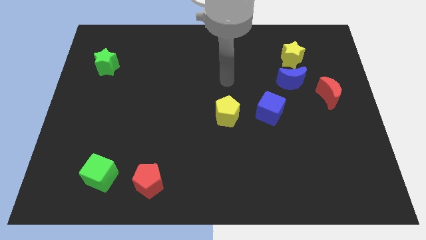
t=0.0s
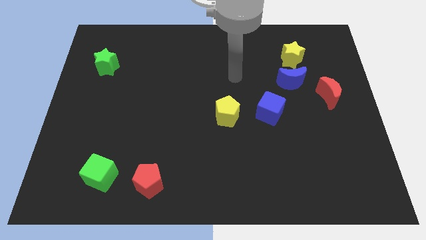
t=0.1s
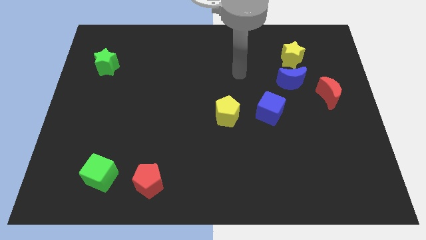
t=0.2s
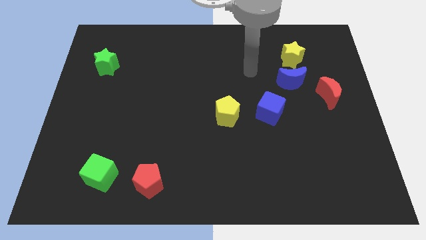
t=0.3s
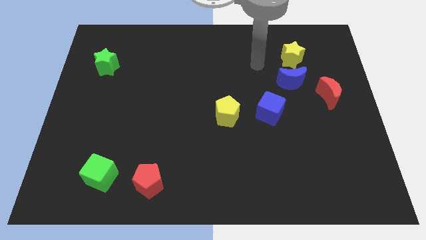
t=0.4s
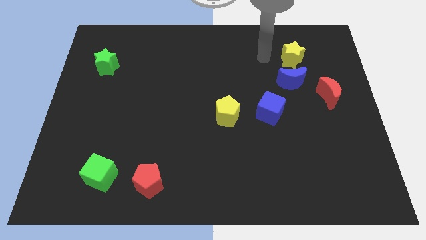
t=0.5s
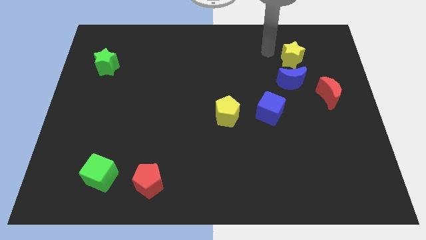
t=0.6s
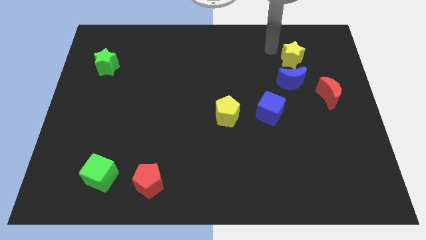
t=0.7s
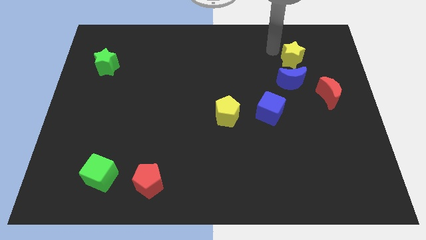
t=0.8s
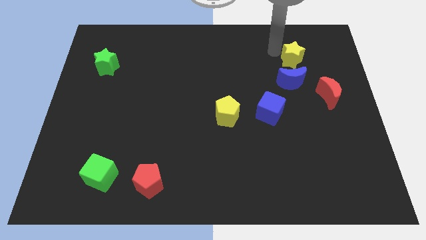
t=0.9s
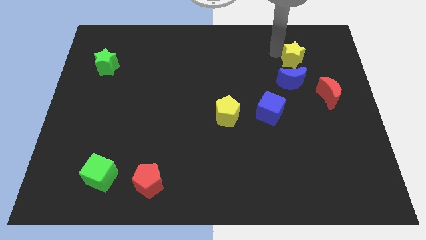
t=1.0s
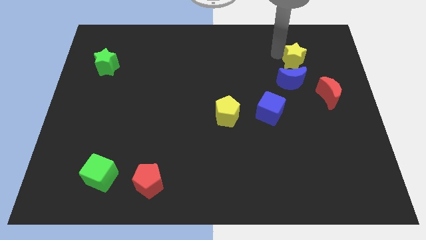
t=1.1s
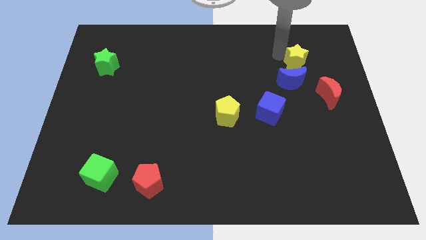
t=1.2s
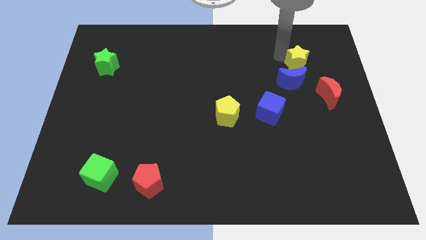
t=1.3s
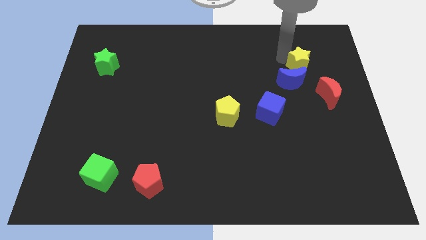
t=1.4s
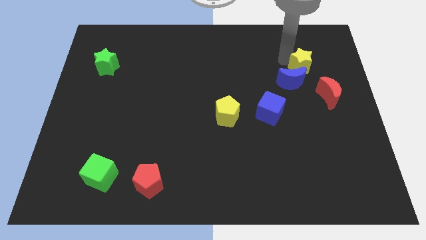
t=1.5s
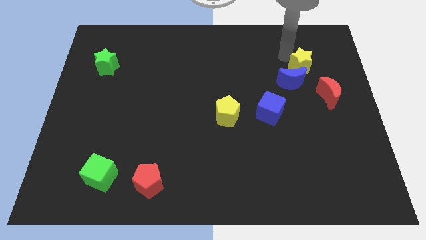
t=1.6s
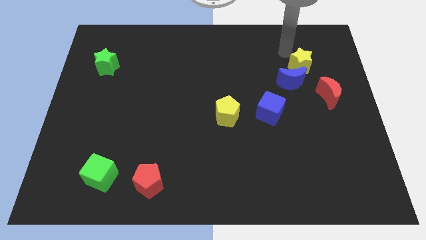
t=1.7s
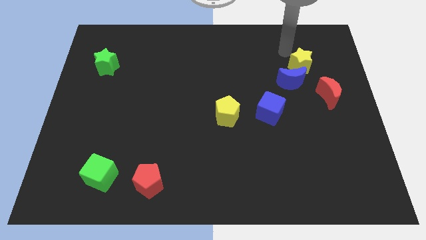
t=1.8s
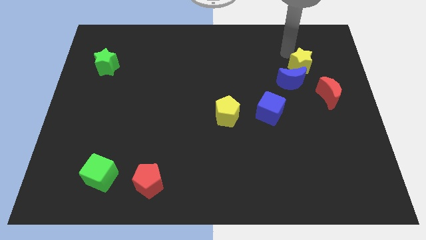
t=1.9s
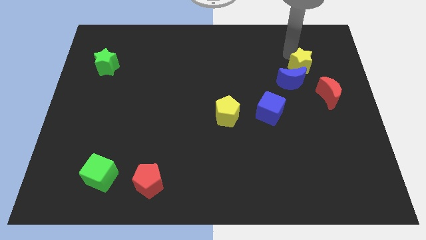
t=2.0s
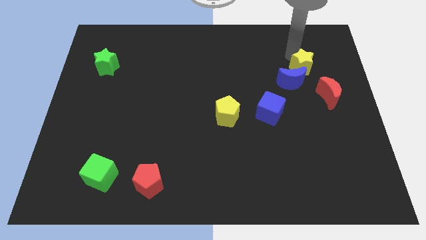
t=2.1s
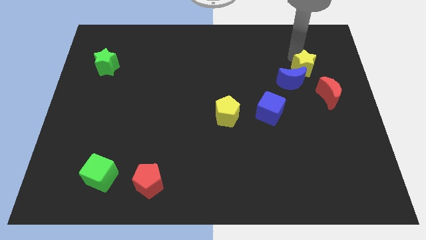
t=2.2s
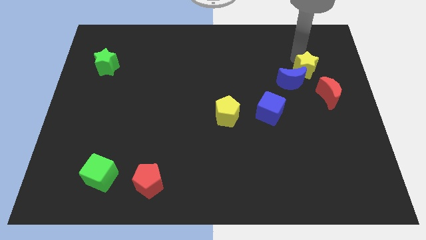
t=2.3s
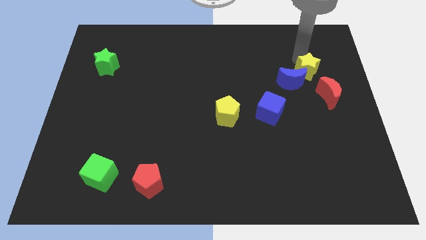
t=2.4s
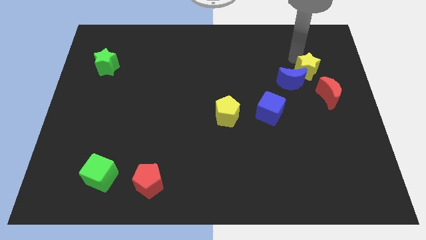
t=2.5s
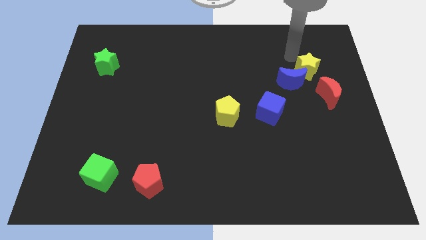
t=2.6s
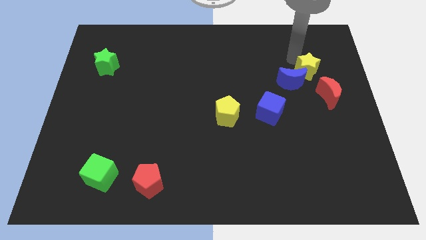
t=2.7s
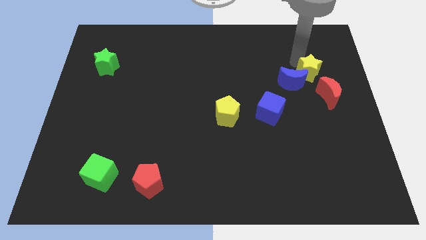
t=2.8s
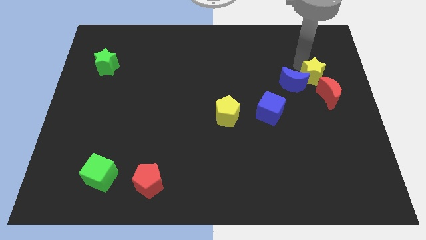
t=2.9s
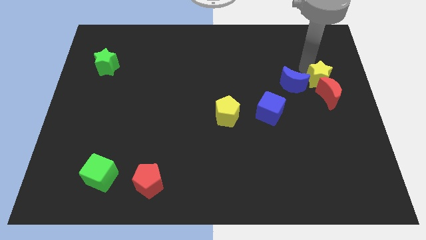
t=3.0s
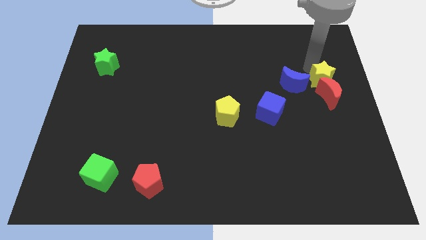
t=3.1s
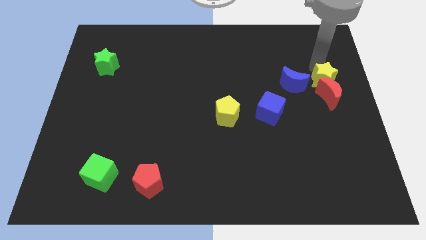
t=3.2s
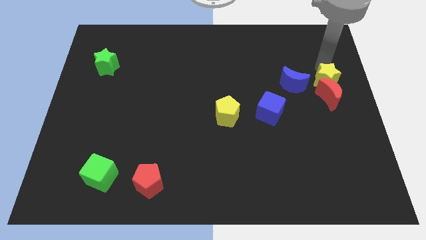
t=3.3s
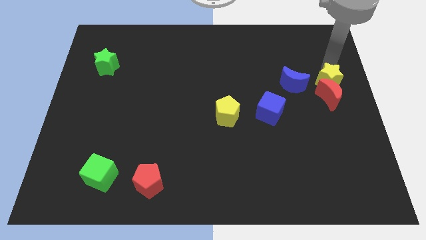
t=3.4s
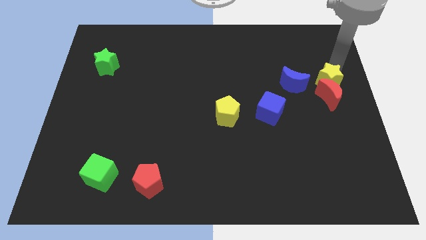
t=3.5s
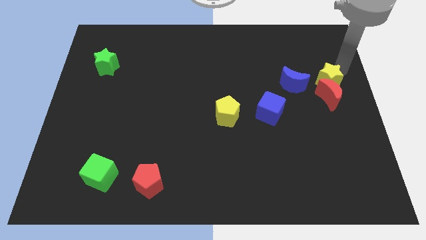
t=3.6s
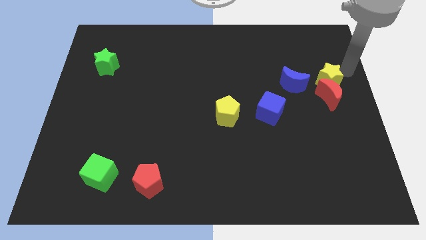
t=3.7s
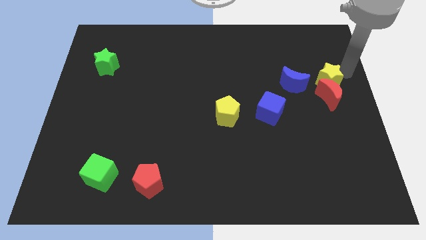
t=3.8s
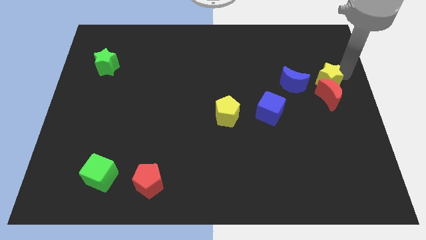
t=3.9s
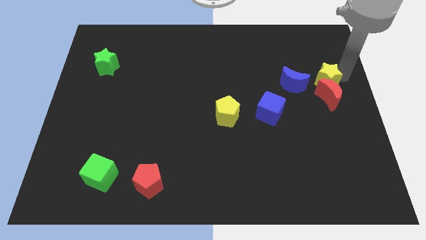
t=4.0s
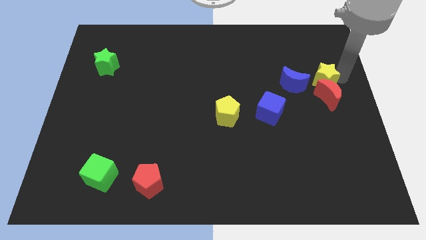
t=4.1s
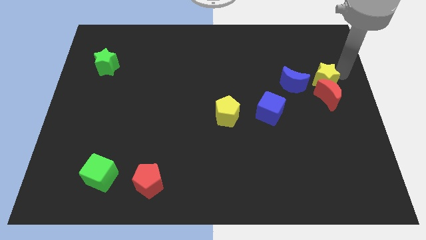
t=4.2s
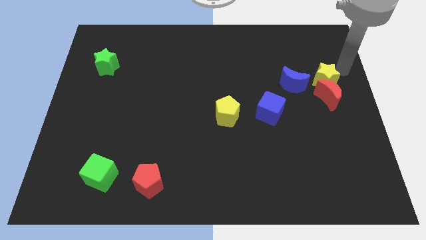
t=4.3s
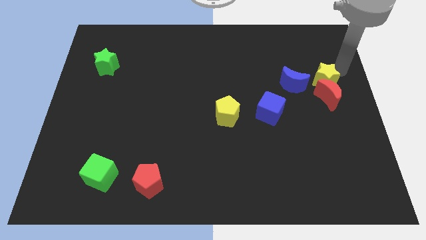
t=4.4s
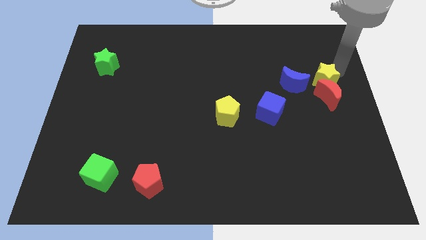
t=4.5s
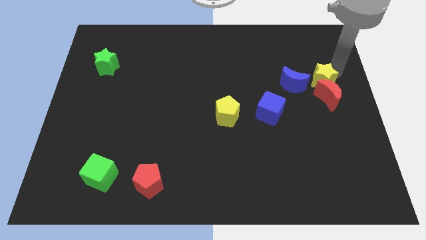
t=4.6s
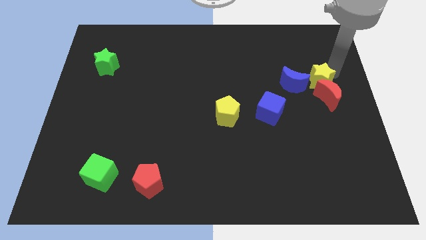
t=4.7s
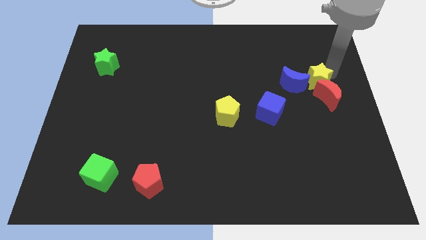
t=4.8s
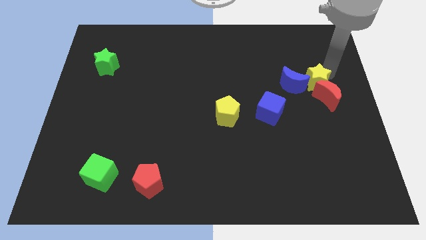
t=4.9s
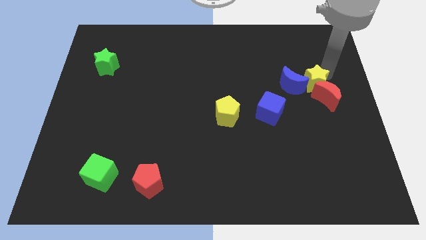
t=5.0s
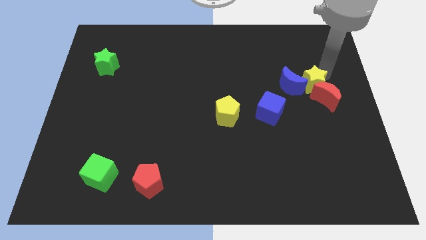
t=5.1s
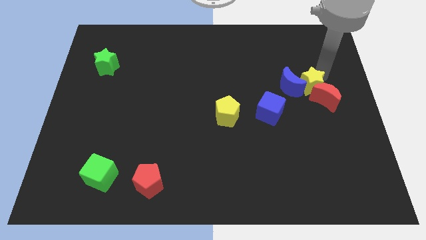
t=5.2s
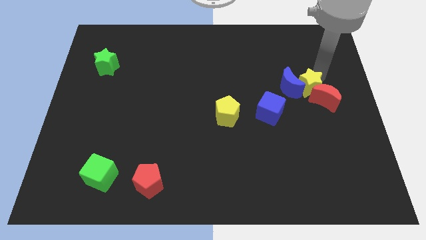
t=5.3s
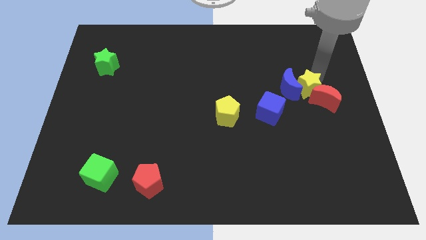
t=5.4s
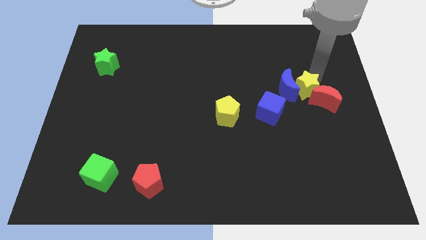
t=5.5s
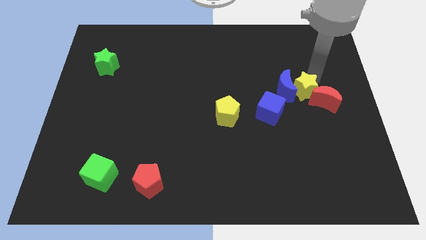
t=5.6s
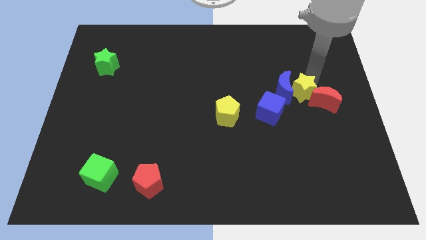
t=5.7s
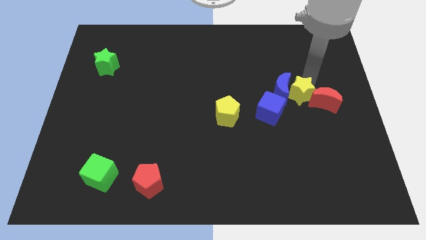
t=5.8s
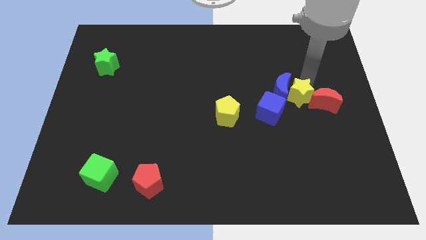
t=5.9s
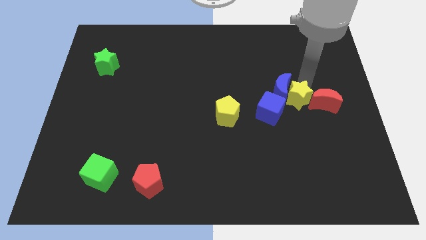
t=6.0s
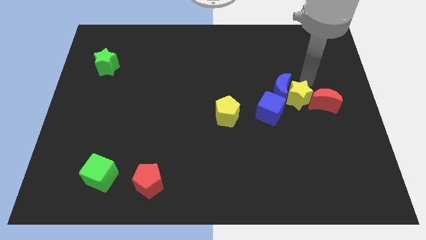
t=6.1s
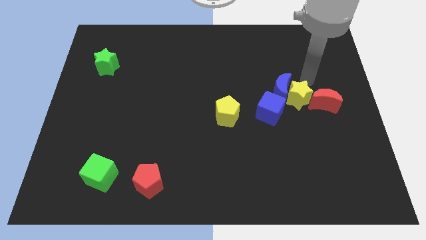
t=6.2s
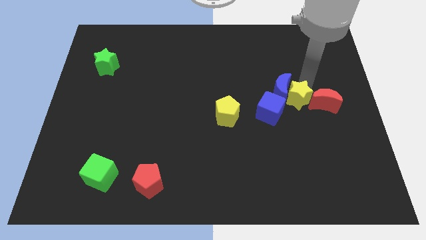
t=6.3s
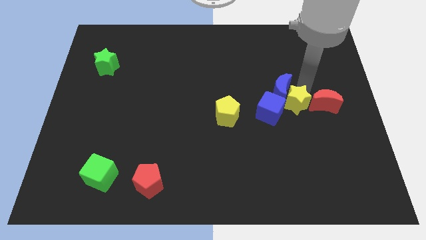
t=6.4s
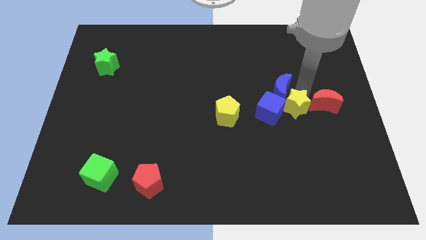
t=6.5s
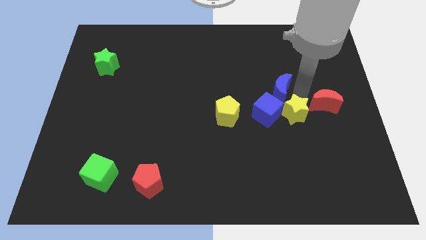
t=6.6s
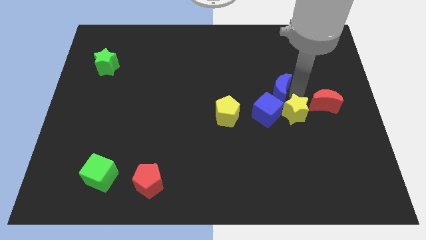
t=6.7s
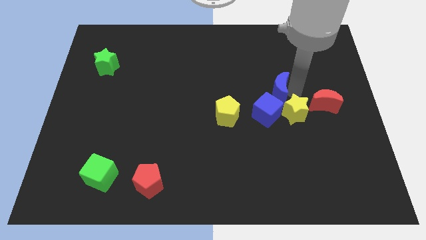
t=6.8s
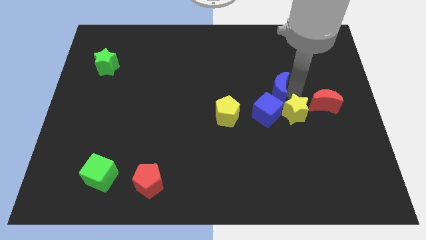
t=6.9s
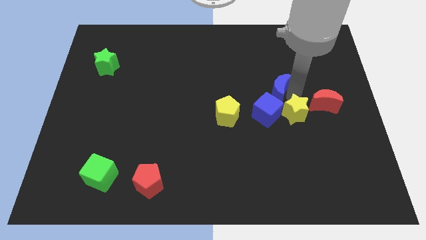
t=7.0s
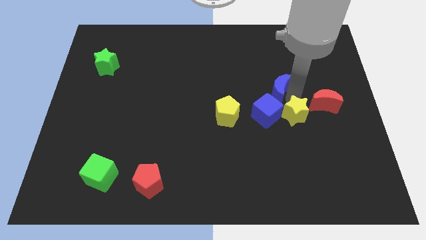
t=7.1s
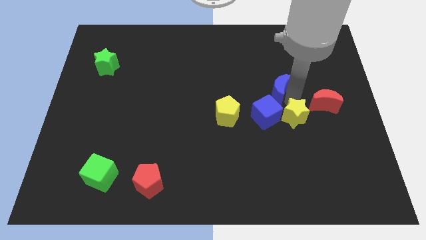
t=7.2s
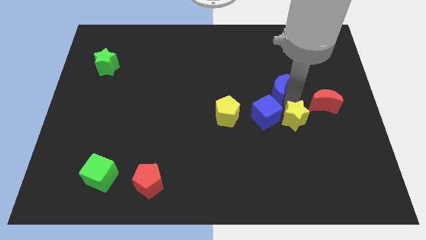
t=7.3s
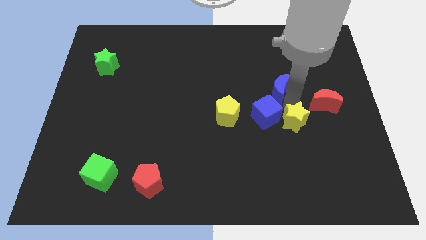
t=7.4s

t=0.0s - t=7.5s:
move the yellow star downwards

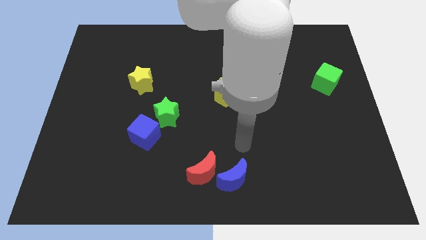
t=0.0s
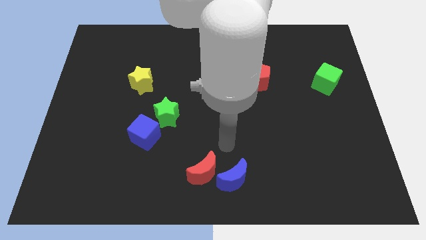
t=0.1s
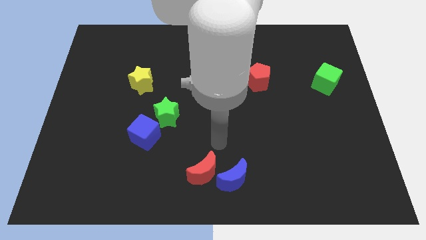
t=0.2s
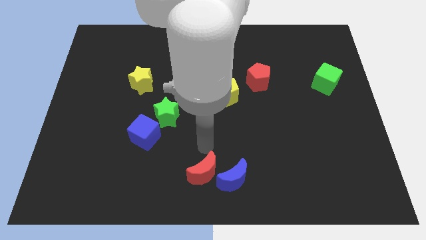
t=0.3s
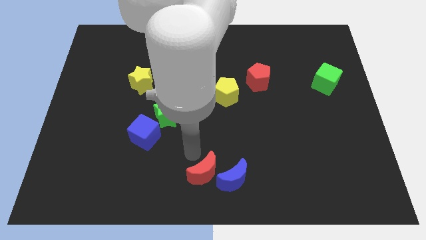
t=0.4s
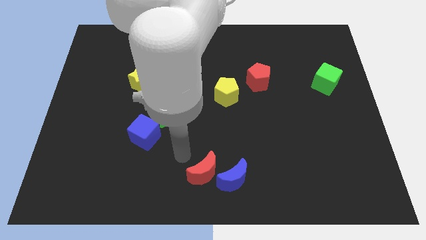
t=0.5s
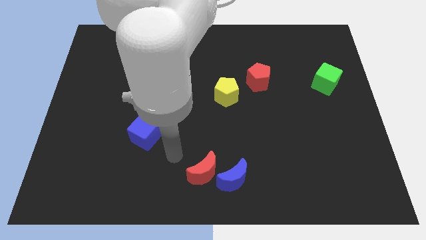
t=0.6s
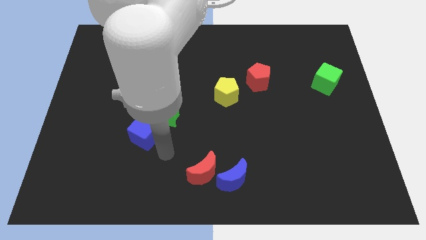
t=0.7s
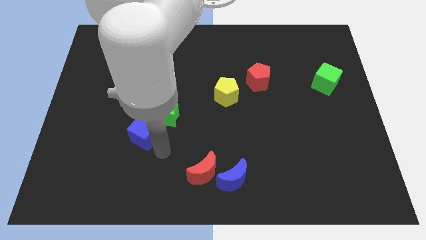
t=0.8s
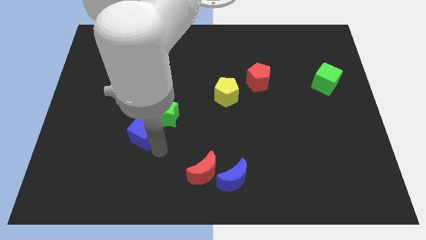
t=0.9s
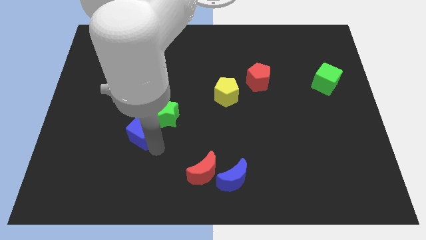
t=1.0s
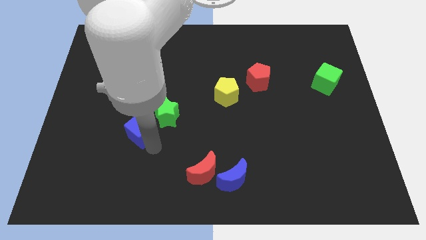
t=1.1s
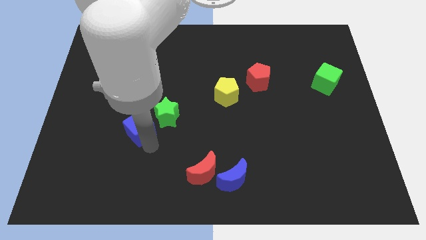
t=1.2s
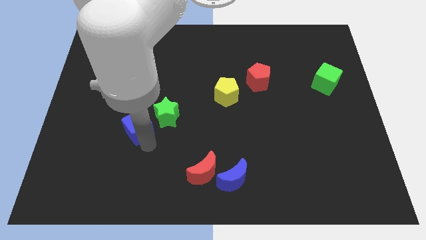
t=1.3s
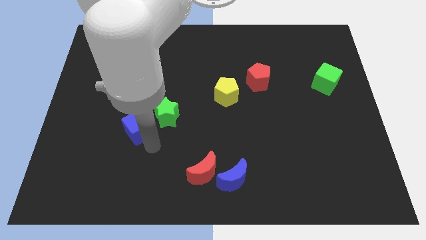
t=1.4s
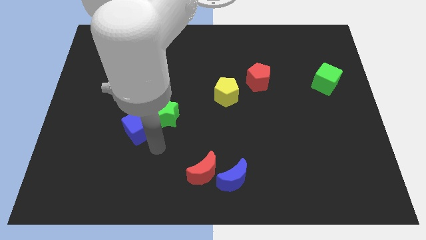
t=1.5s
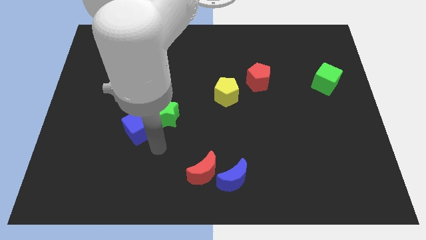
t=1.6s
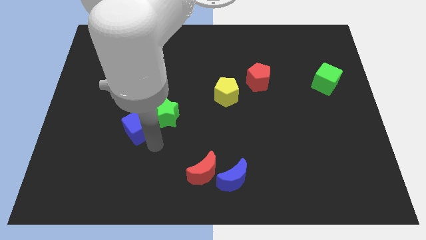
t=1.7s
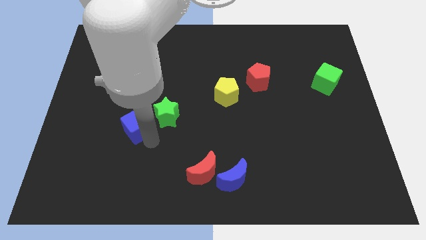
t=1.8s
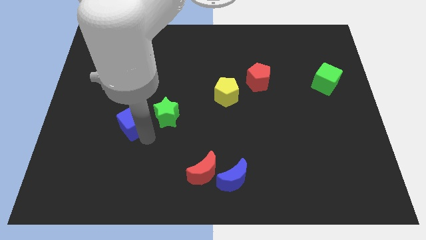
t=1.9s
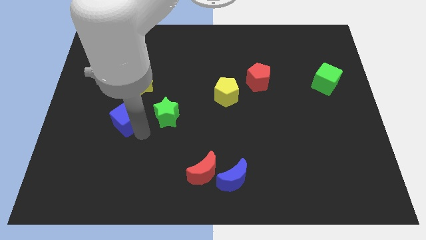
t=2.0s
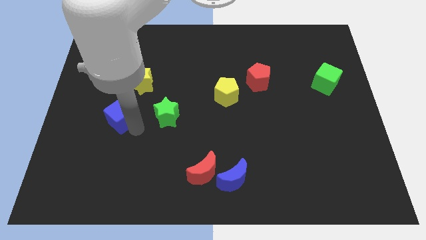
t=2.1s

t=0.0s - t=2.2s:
slightly move the blue cube upwards and left diagonally
